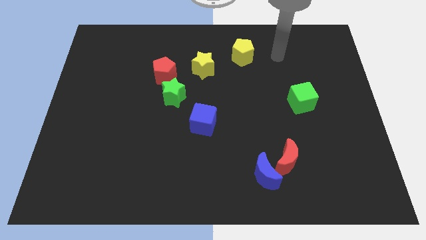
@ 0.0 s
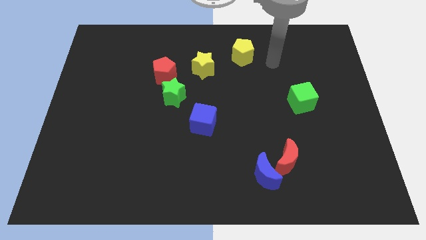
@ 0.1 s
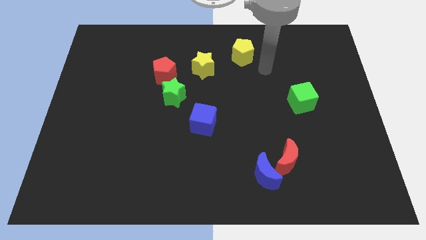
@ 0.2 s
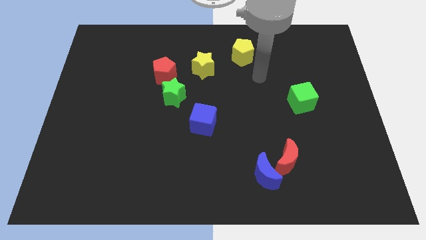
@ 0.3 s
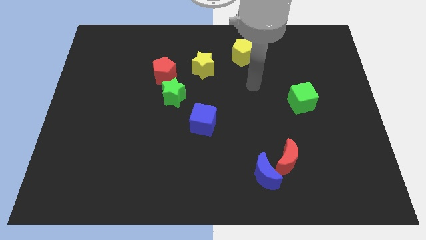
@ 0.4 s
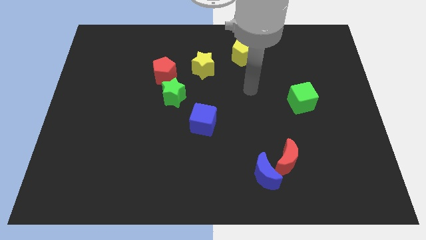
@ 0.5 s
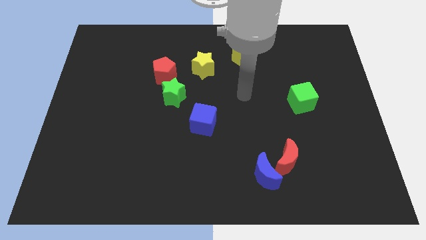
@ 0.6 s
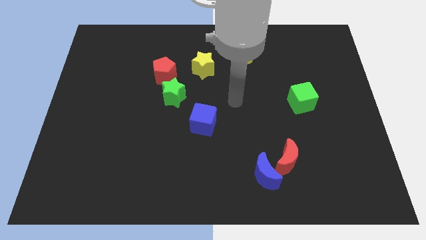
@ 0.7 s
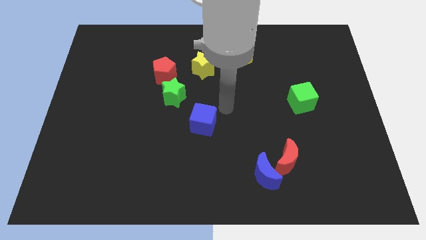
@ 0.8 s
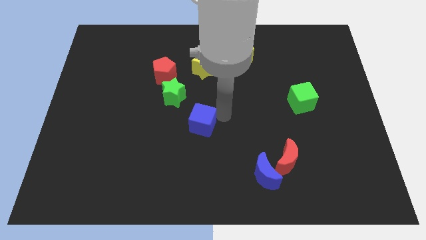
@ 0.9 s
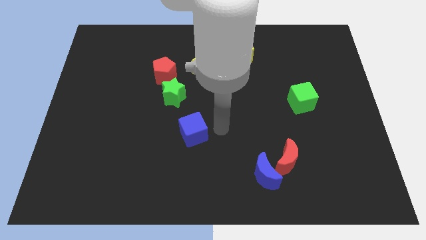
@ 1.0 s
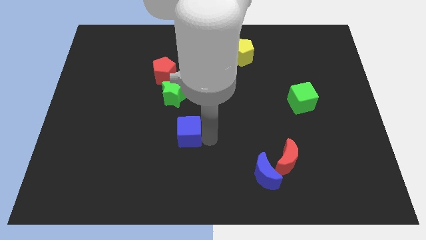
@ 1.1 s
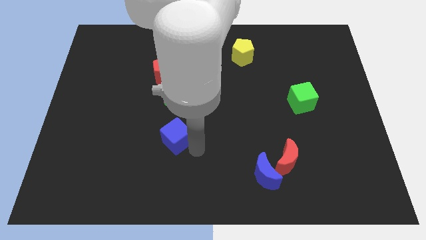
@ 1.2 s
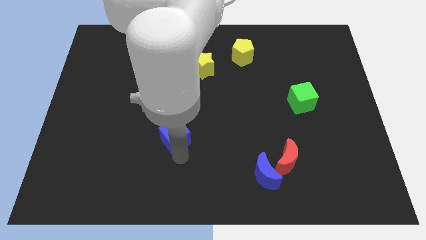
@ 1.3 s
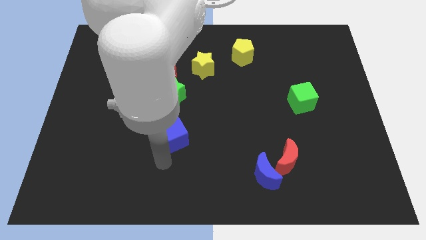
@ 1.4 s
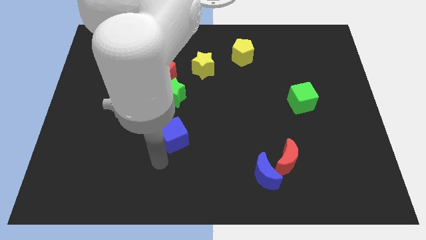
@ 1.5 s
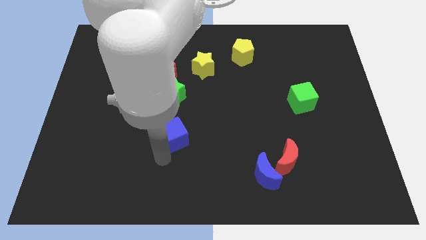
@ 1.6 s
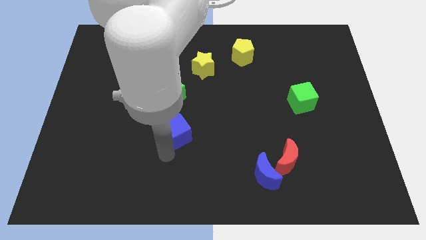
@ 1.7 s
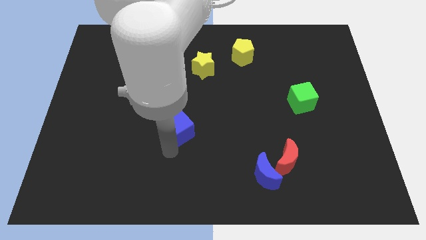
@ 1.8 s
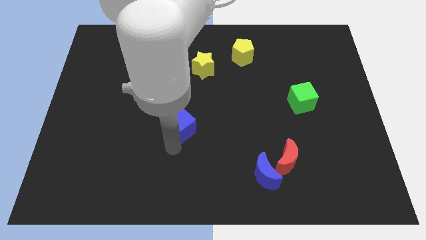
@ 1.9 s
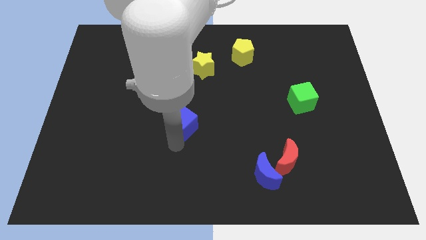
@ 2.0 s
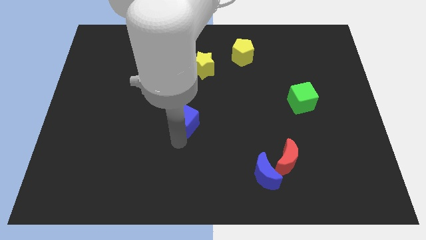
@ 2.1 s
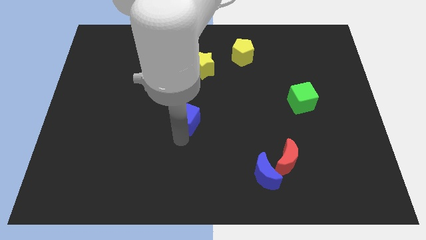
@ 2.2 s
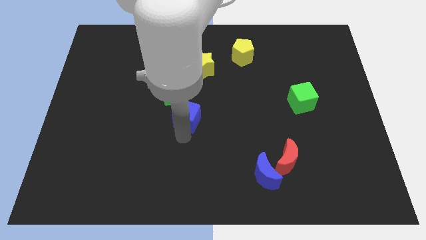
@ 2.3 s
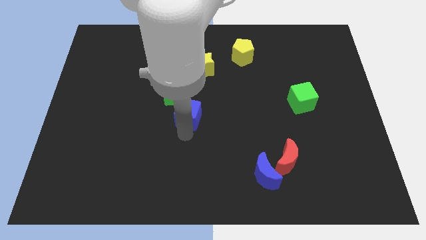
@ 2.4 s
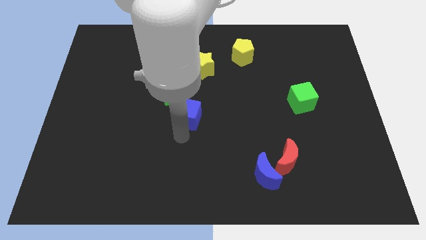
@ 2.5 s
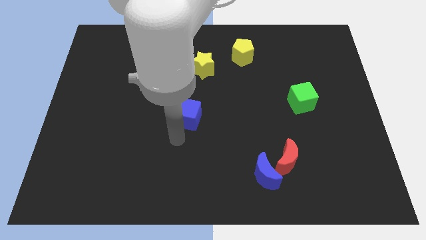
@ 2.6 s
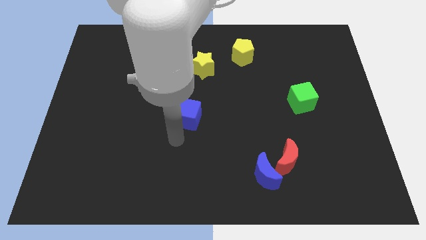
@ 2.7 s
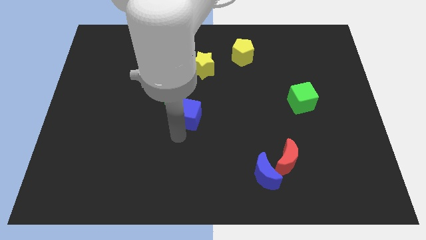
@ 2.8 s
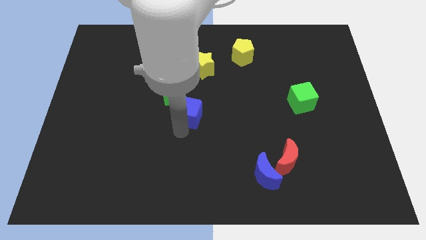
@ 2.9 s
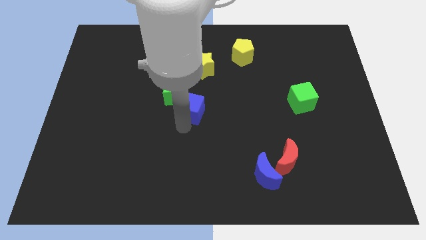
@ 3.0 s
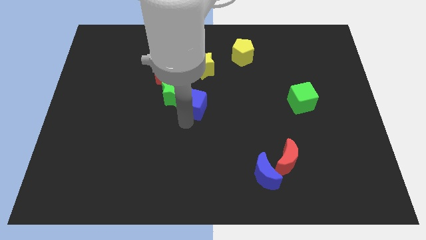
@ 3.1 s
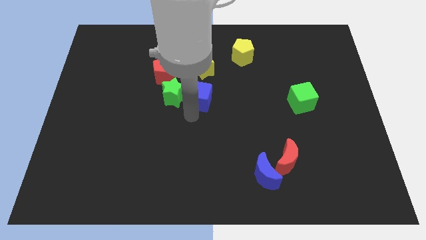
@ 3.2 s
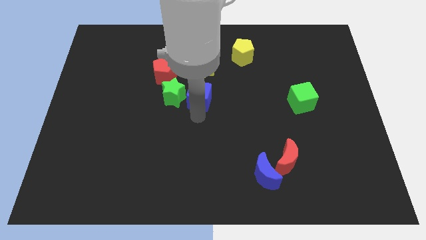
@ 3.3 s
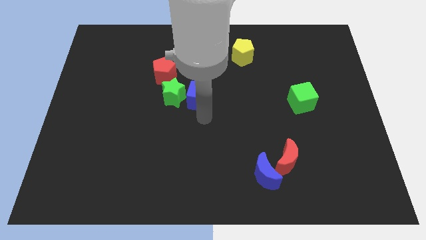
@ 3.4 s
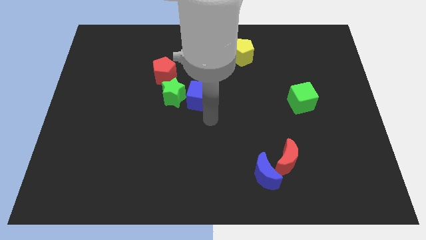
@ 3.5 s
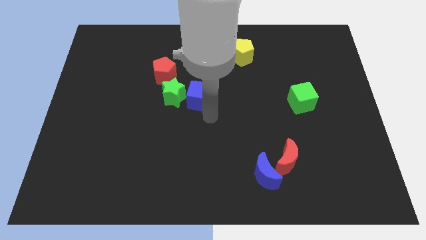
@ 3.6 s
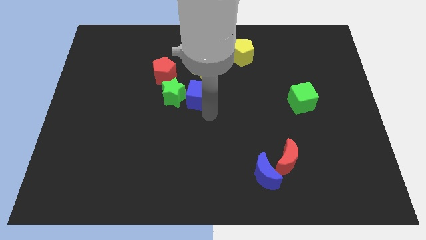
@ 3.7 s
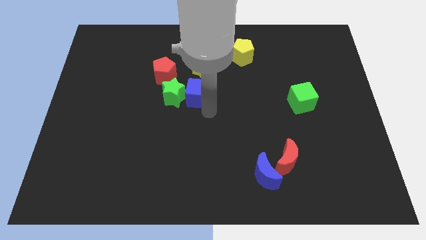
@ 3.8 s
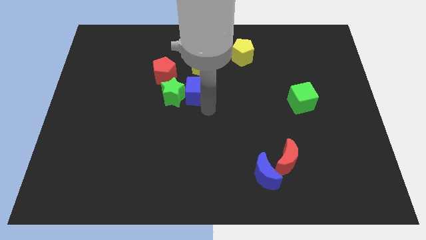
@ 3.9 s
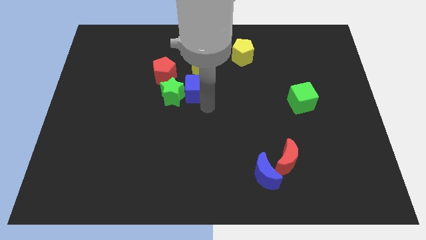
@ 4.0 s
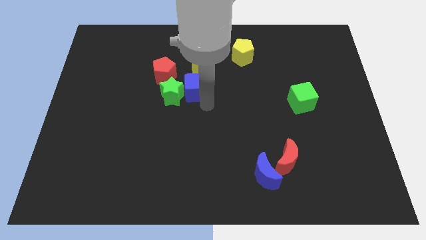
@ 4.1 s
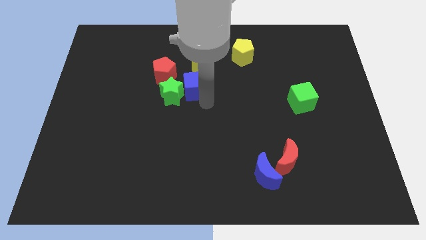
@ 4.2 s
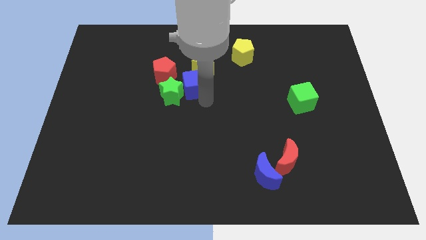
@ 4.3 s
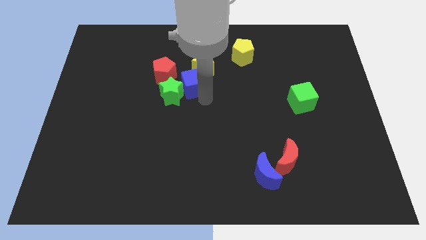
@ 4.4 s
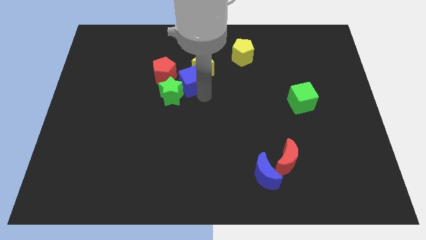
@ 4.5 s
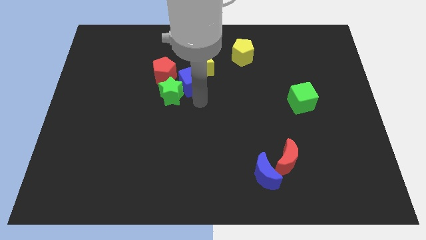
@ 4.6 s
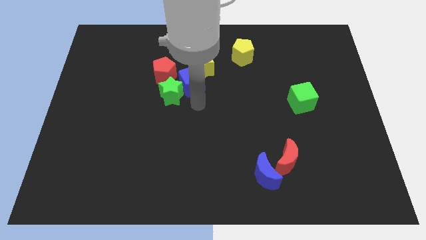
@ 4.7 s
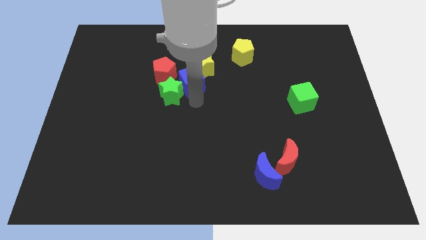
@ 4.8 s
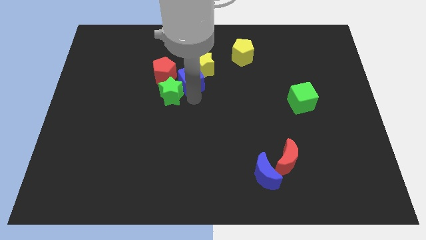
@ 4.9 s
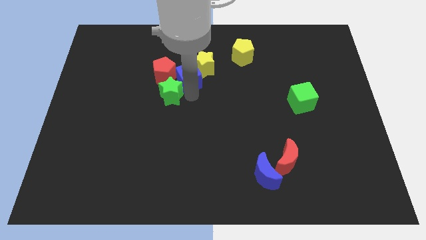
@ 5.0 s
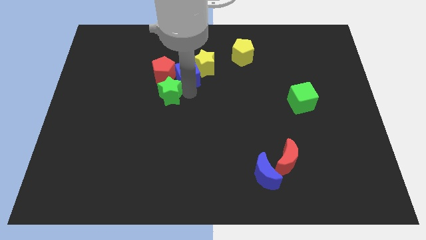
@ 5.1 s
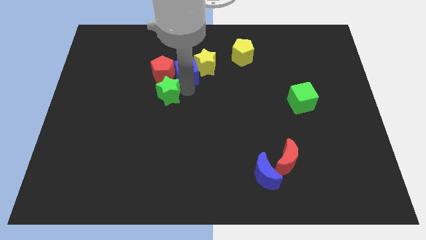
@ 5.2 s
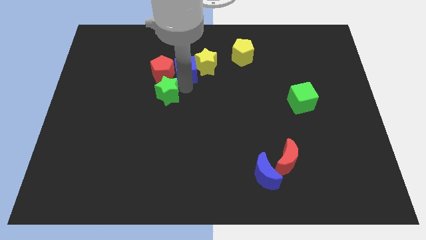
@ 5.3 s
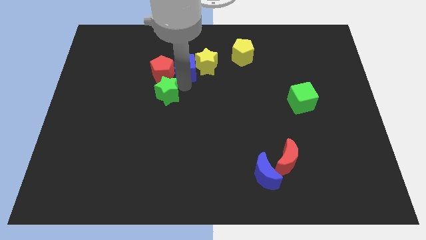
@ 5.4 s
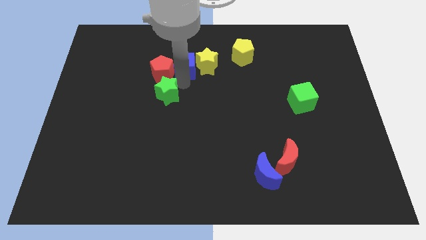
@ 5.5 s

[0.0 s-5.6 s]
put the blue cube to the top left of the yellow star

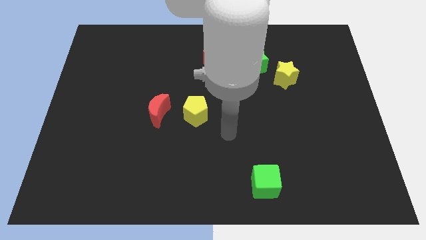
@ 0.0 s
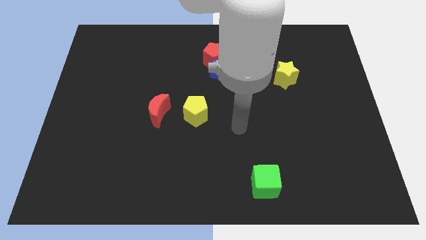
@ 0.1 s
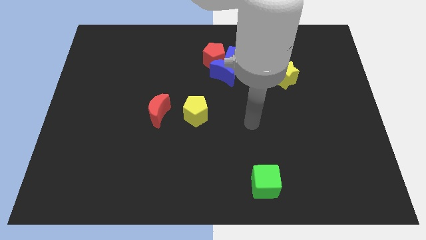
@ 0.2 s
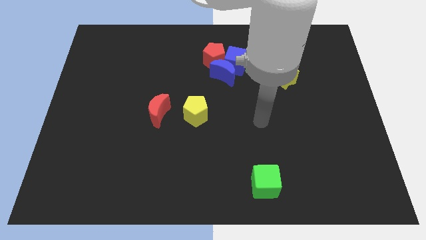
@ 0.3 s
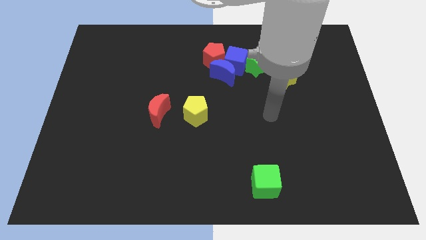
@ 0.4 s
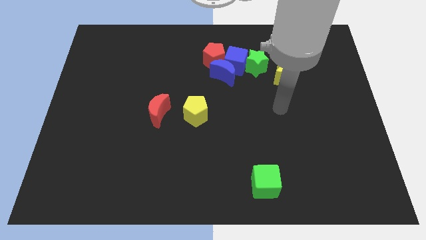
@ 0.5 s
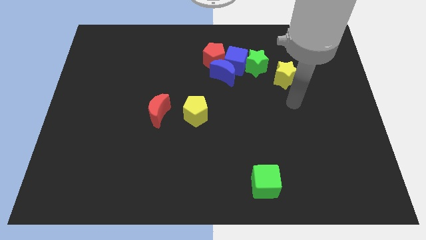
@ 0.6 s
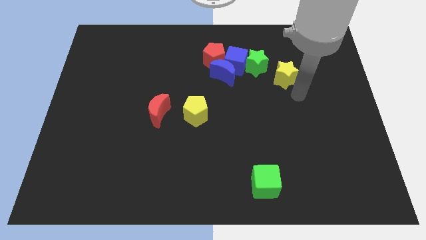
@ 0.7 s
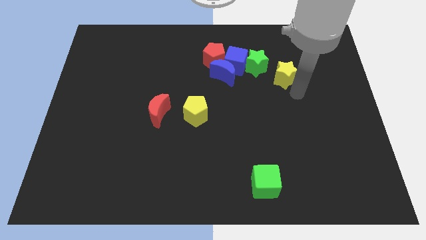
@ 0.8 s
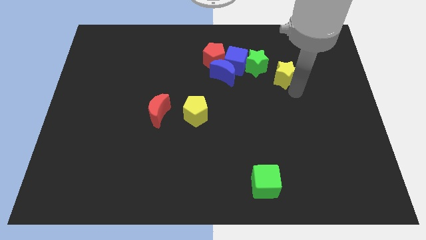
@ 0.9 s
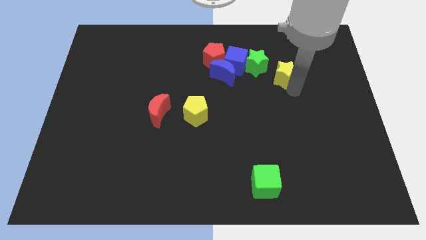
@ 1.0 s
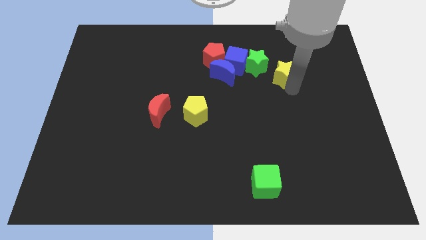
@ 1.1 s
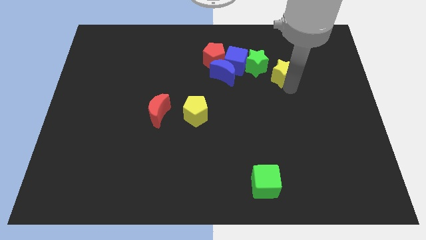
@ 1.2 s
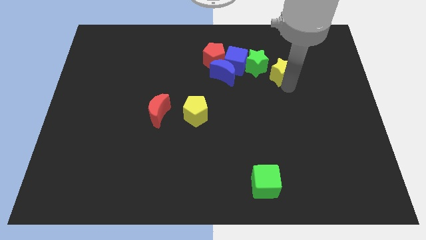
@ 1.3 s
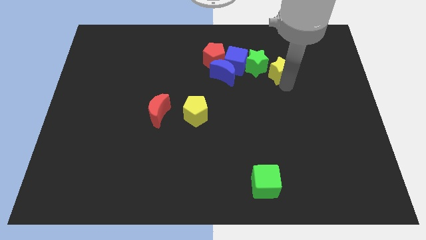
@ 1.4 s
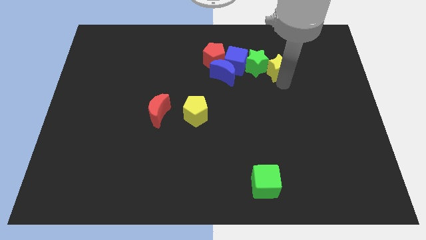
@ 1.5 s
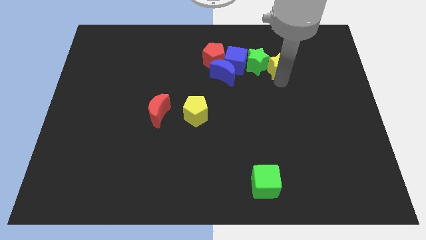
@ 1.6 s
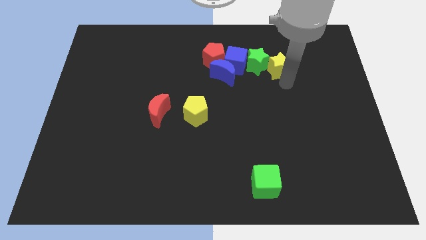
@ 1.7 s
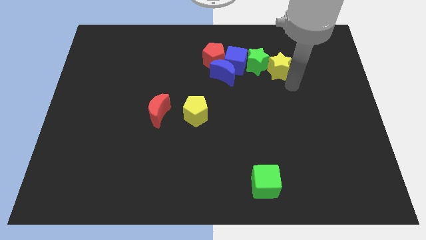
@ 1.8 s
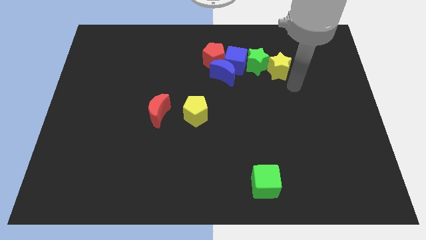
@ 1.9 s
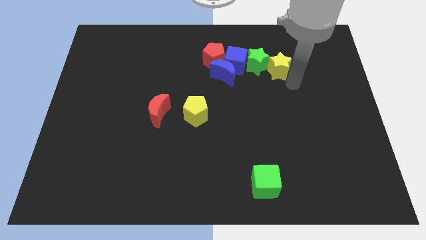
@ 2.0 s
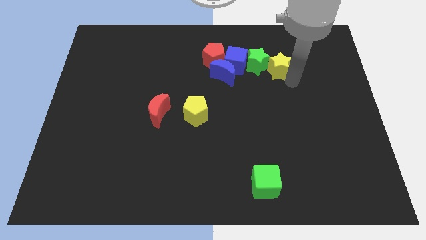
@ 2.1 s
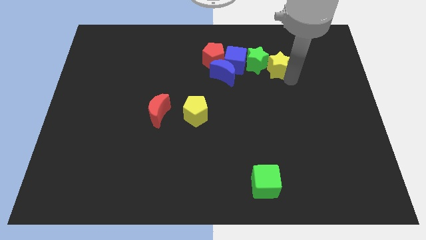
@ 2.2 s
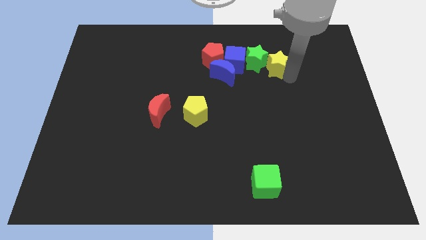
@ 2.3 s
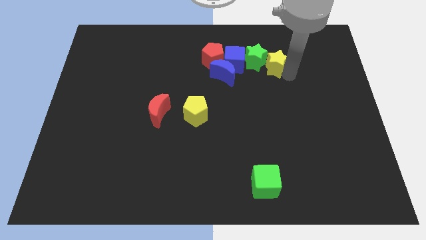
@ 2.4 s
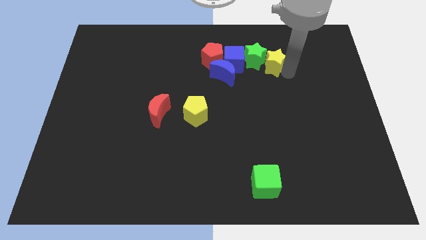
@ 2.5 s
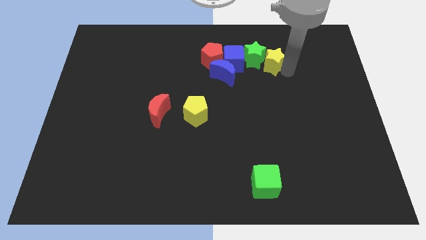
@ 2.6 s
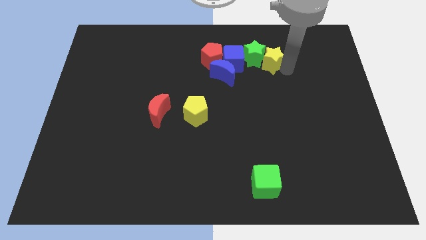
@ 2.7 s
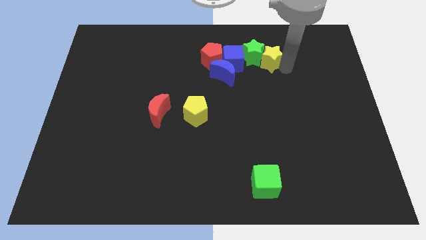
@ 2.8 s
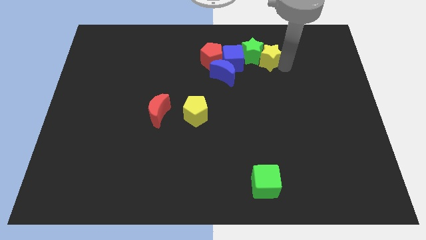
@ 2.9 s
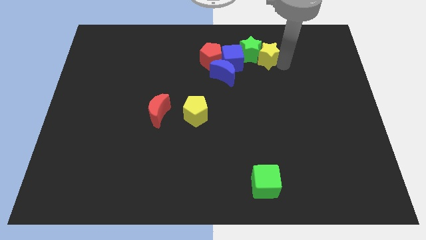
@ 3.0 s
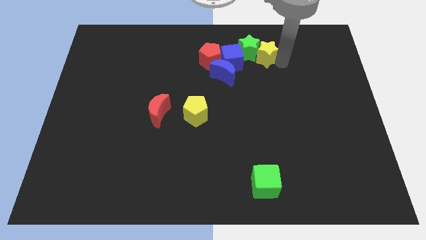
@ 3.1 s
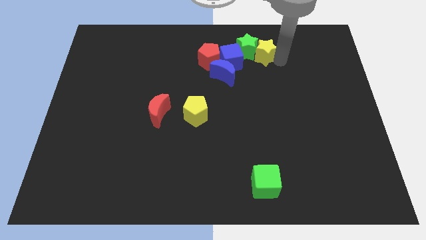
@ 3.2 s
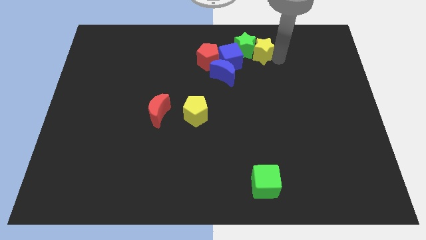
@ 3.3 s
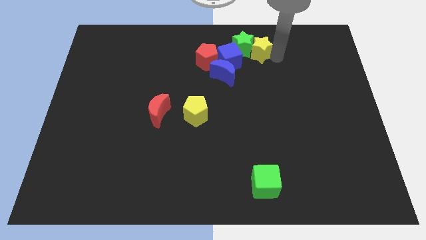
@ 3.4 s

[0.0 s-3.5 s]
put the yellow star diagonally up and to the right of the blue moon
